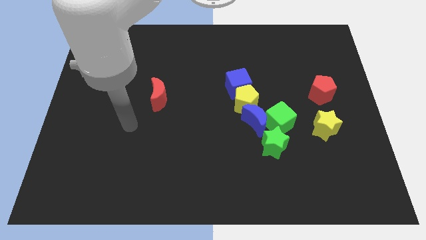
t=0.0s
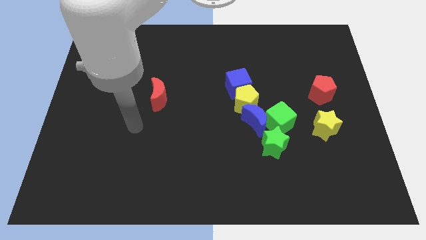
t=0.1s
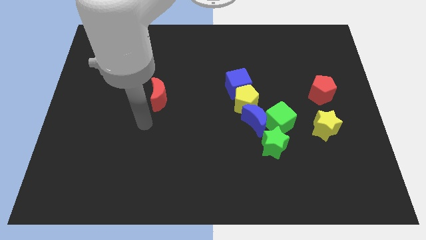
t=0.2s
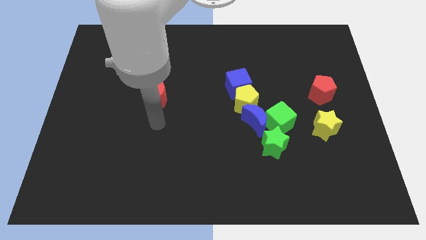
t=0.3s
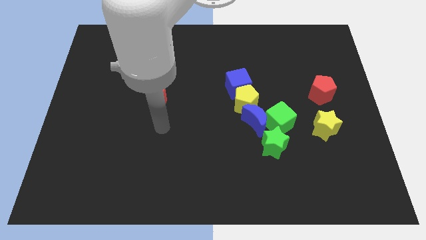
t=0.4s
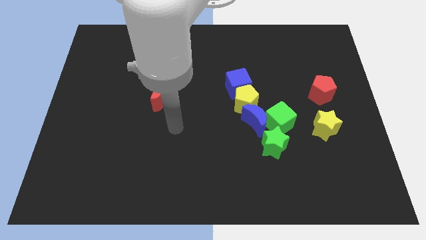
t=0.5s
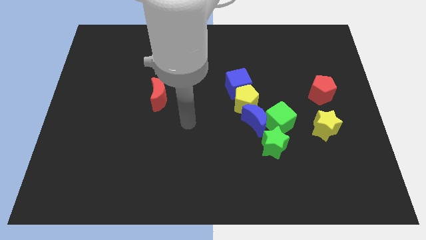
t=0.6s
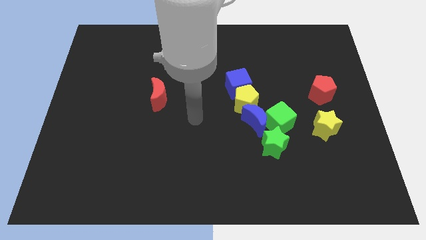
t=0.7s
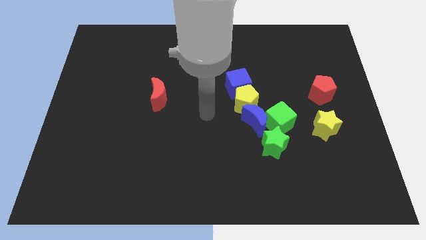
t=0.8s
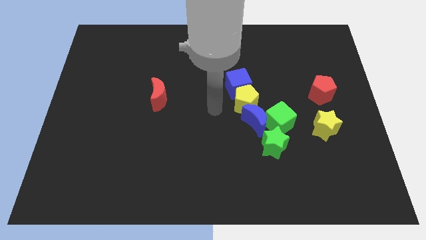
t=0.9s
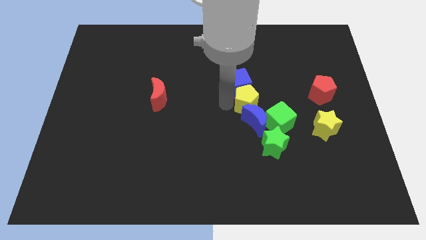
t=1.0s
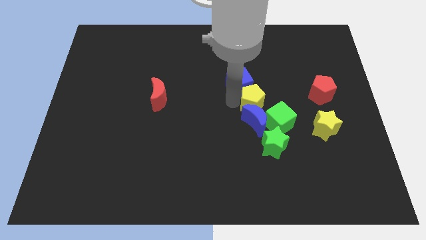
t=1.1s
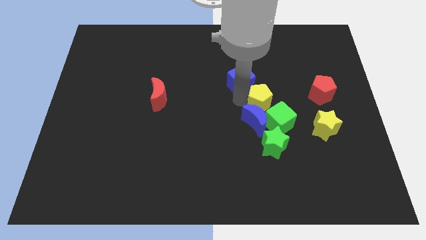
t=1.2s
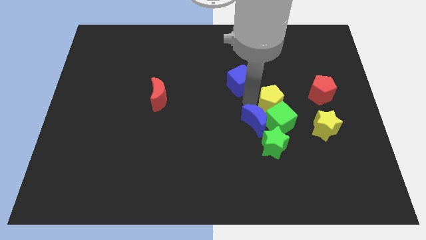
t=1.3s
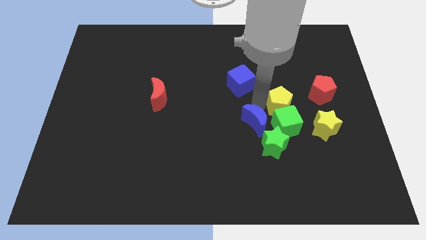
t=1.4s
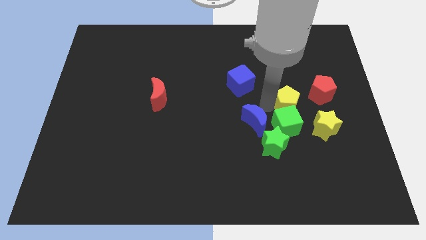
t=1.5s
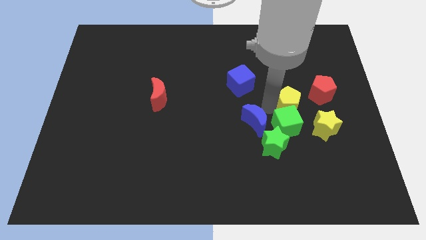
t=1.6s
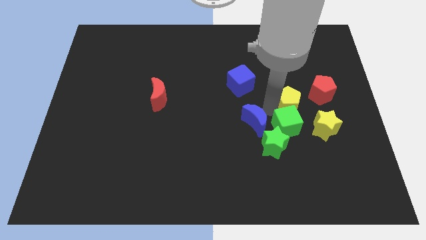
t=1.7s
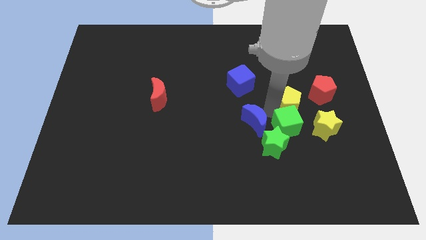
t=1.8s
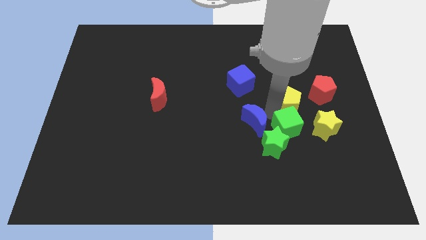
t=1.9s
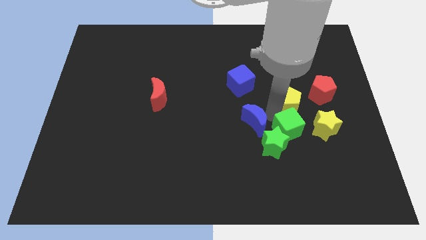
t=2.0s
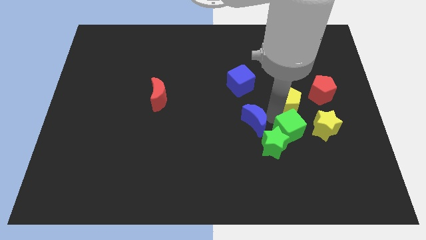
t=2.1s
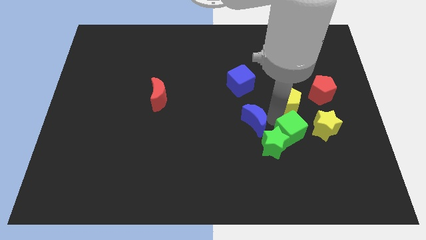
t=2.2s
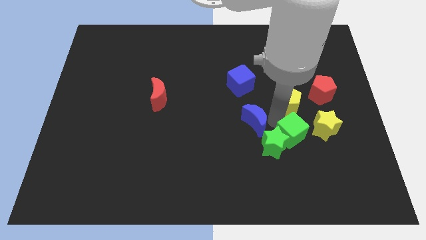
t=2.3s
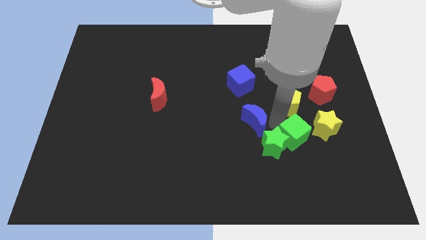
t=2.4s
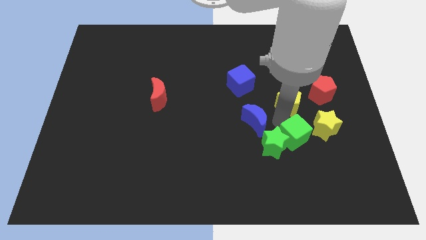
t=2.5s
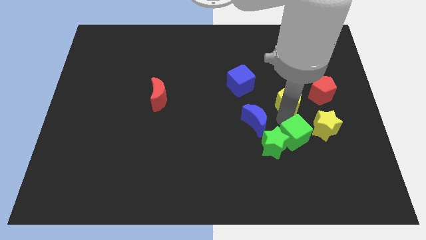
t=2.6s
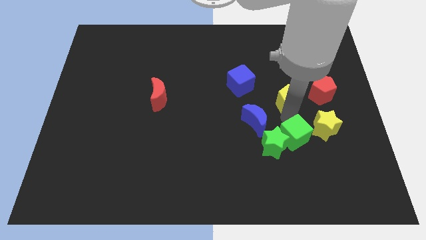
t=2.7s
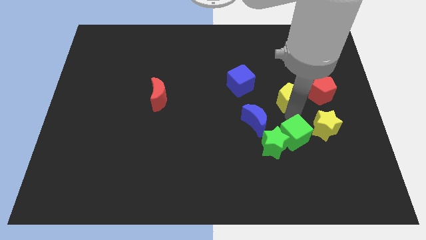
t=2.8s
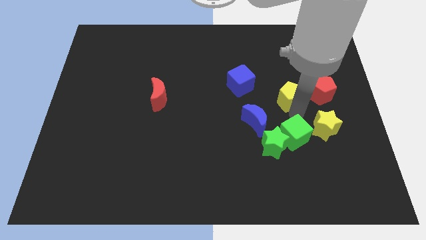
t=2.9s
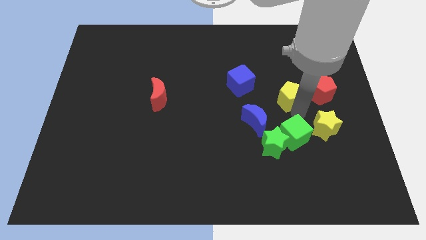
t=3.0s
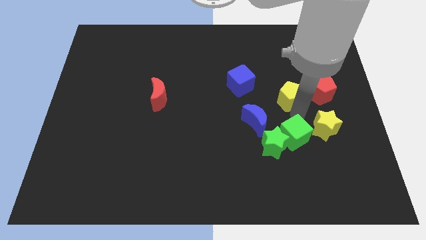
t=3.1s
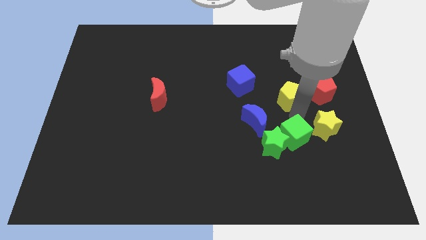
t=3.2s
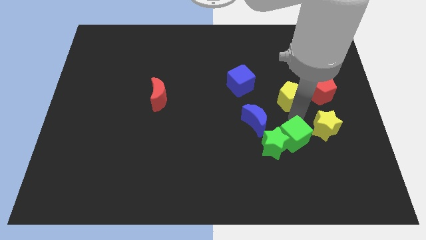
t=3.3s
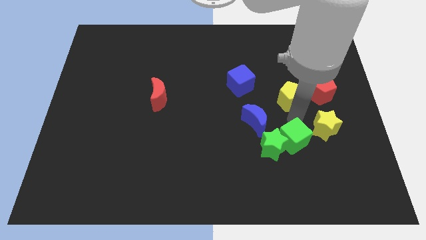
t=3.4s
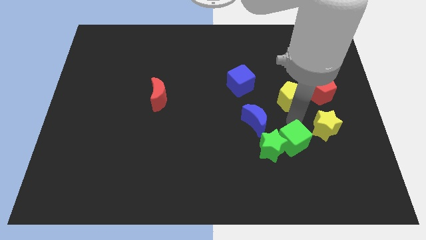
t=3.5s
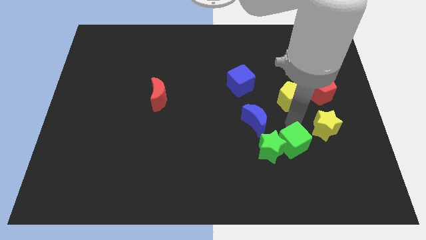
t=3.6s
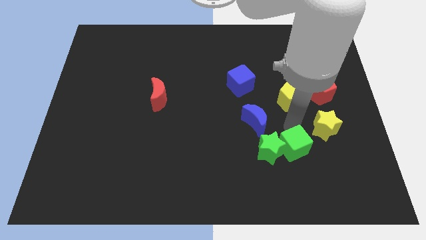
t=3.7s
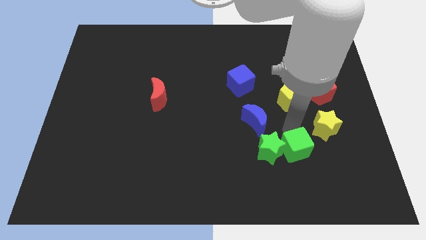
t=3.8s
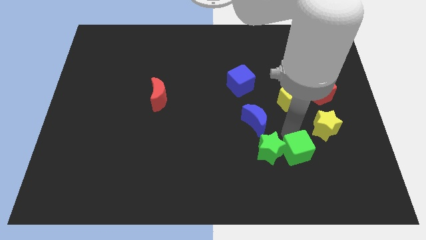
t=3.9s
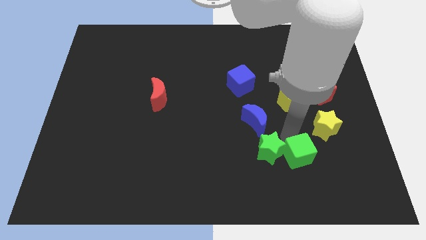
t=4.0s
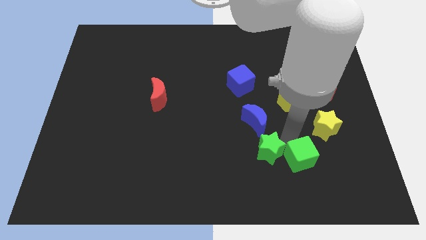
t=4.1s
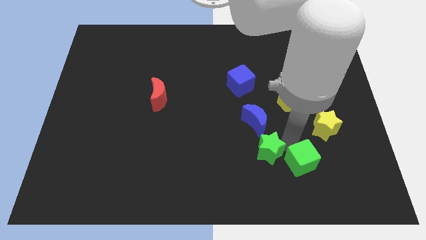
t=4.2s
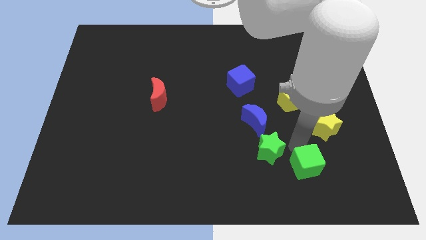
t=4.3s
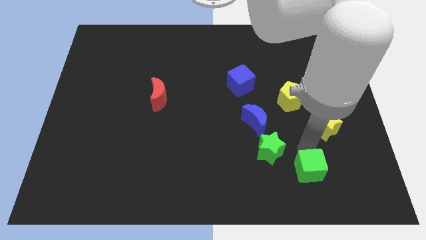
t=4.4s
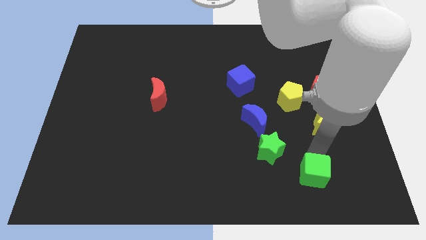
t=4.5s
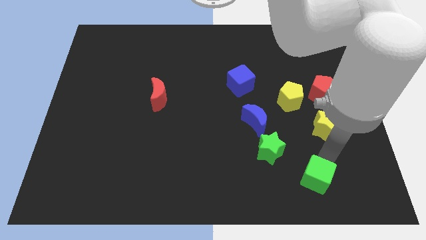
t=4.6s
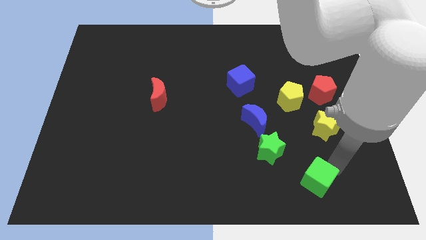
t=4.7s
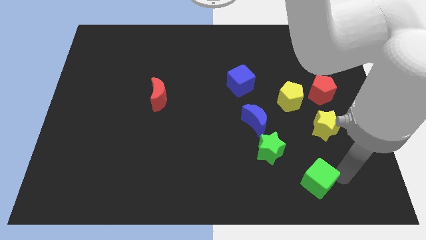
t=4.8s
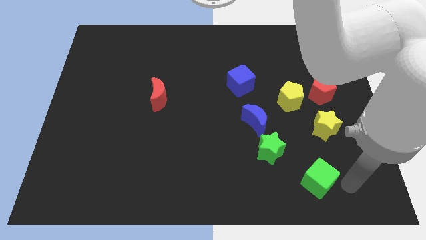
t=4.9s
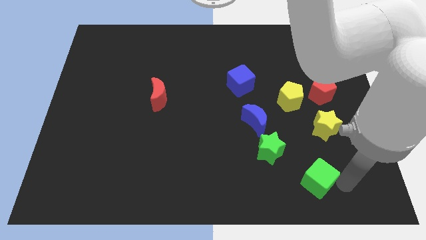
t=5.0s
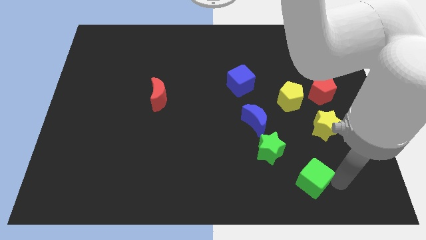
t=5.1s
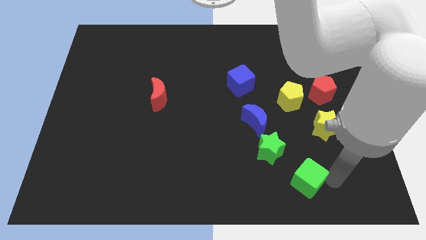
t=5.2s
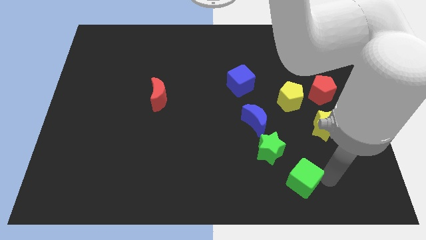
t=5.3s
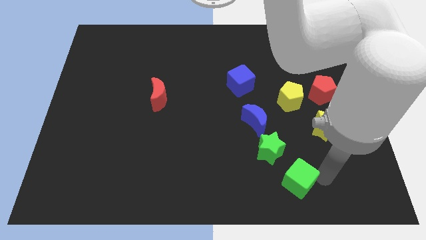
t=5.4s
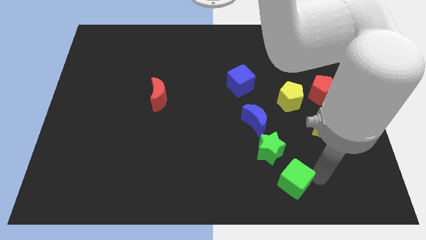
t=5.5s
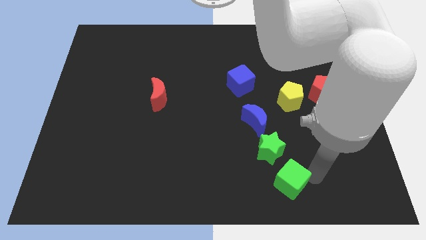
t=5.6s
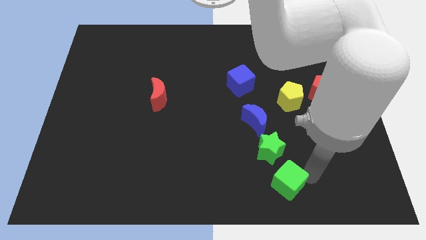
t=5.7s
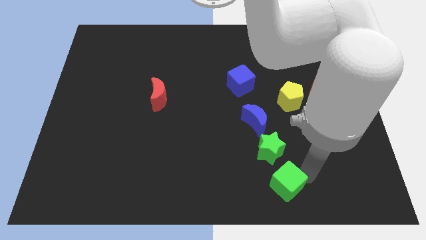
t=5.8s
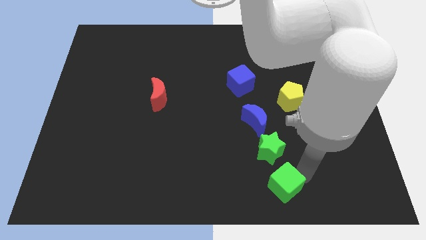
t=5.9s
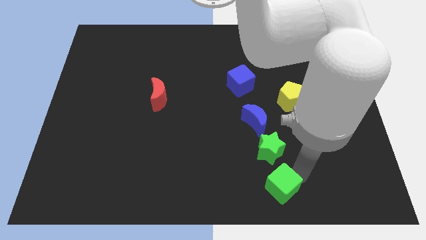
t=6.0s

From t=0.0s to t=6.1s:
push the green cube downwards and to the left slightly

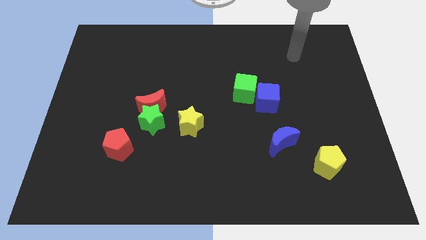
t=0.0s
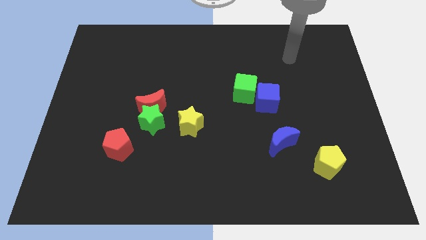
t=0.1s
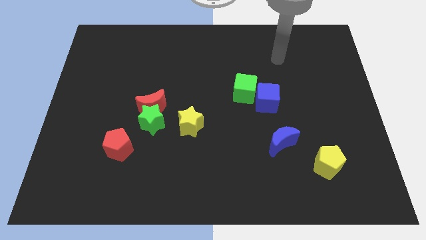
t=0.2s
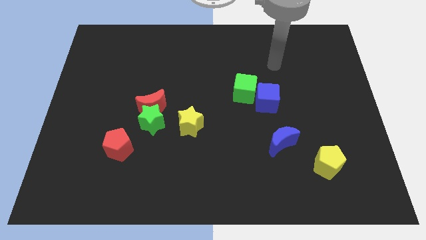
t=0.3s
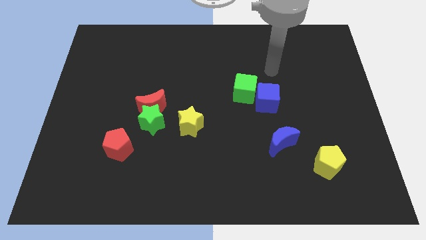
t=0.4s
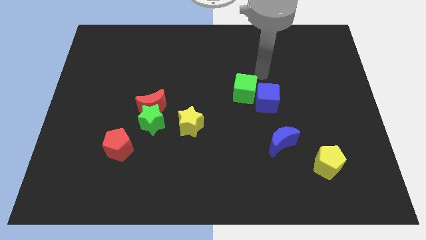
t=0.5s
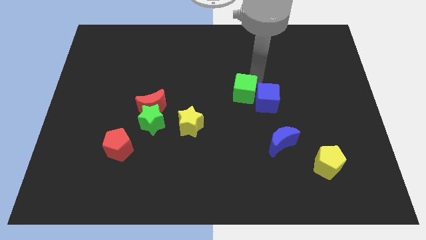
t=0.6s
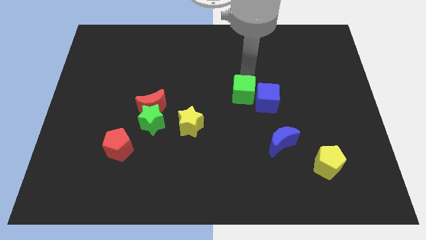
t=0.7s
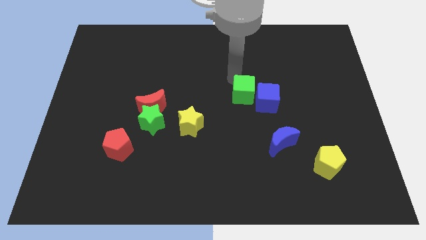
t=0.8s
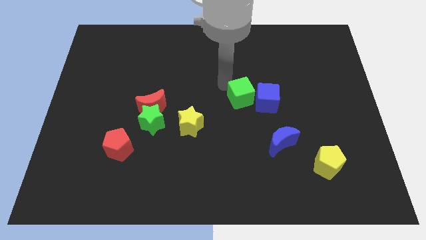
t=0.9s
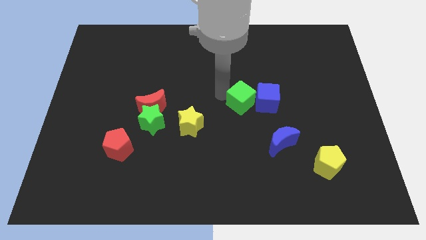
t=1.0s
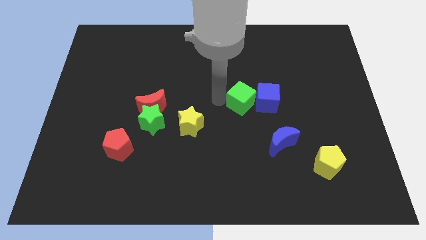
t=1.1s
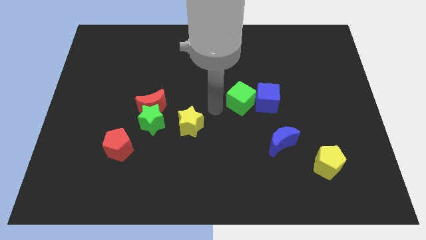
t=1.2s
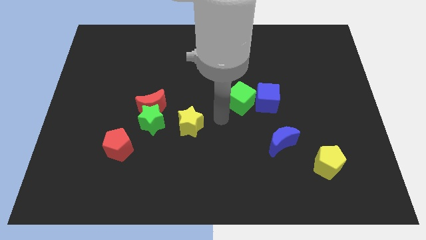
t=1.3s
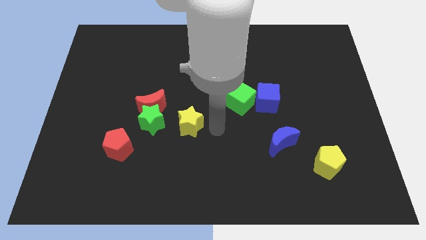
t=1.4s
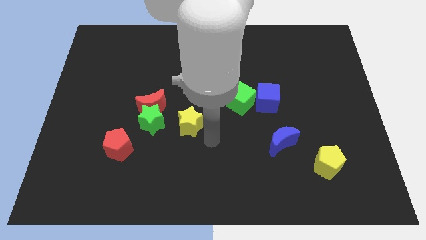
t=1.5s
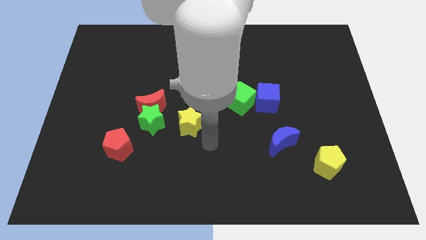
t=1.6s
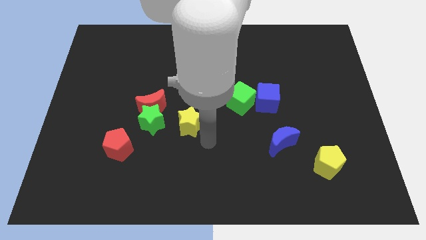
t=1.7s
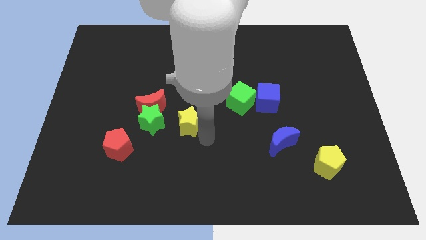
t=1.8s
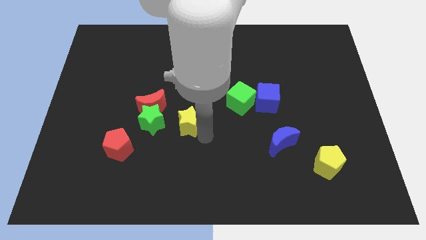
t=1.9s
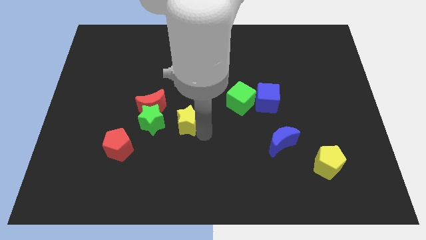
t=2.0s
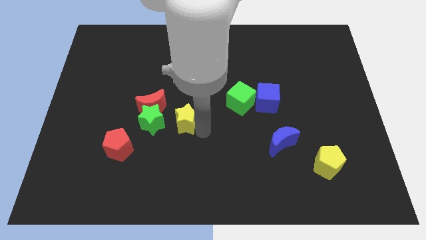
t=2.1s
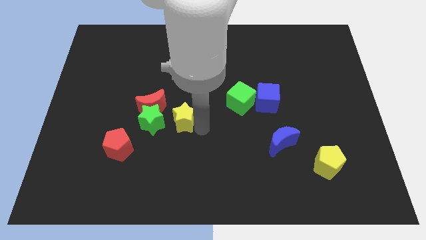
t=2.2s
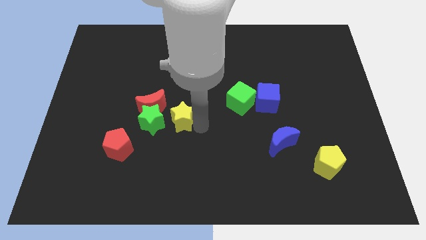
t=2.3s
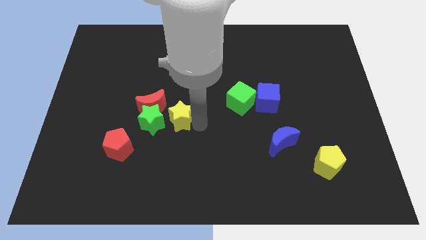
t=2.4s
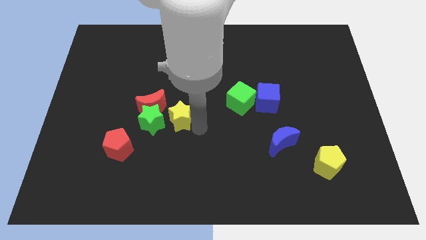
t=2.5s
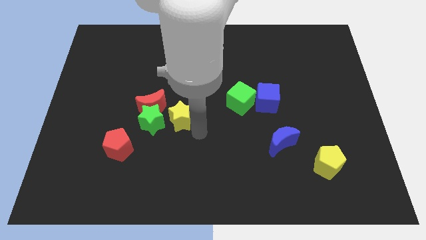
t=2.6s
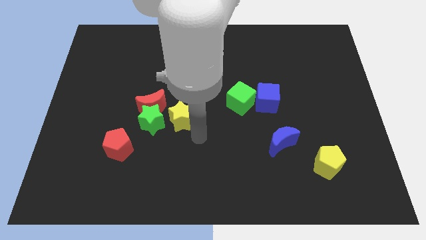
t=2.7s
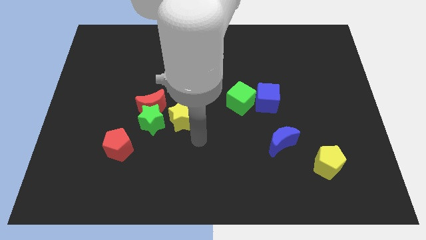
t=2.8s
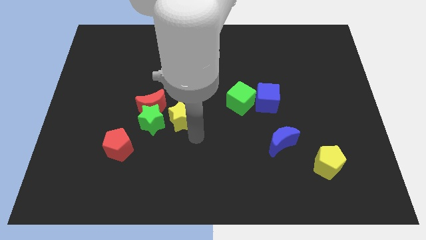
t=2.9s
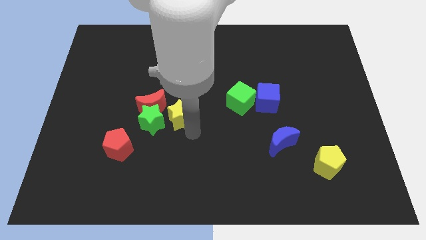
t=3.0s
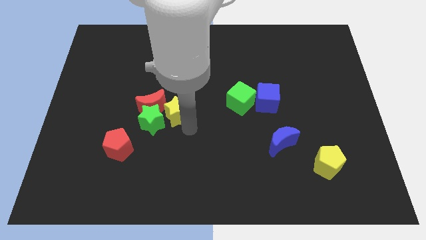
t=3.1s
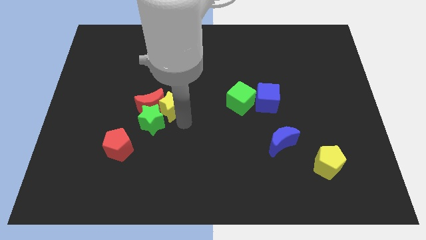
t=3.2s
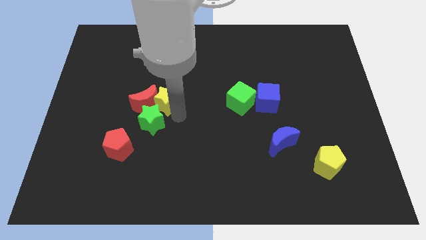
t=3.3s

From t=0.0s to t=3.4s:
slightly push the yellow star up and left diagonally
